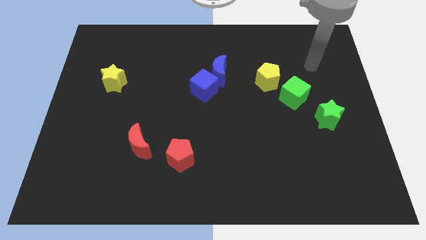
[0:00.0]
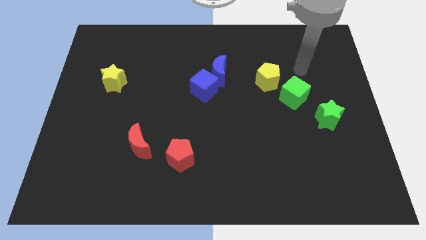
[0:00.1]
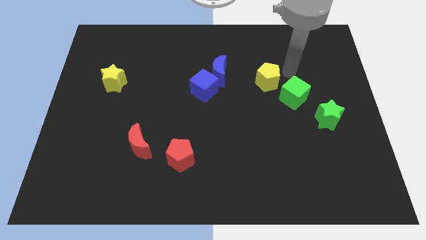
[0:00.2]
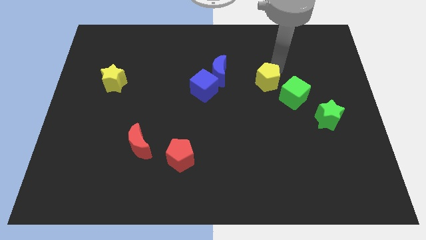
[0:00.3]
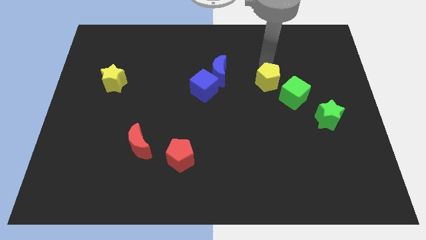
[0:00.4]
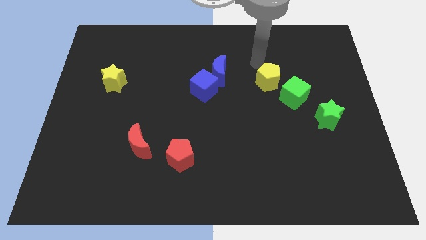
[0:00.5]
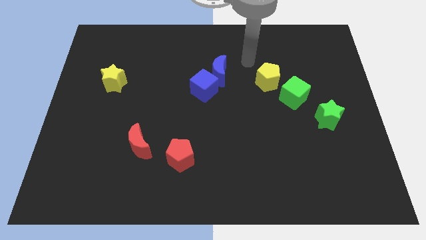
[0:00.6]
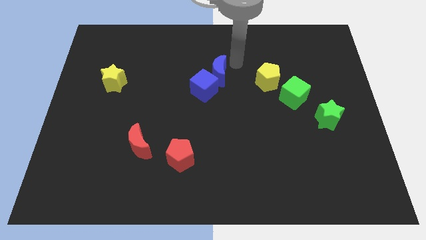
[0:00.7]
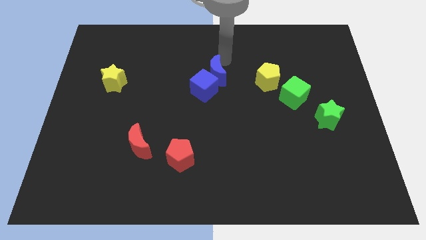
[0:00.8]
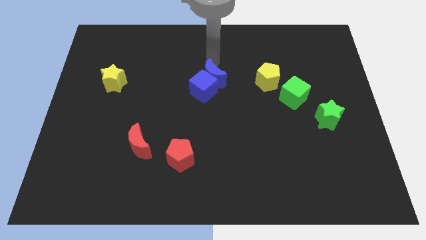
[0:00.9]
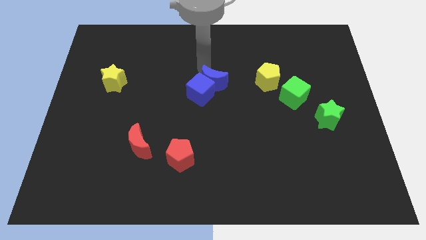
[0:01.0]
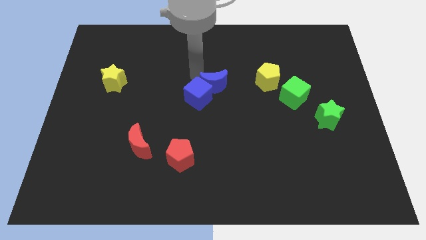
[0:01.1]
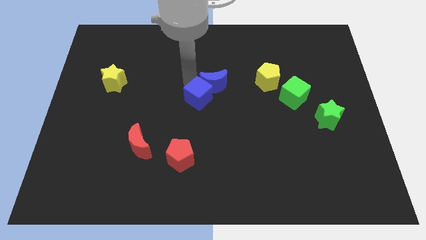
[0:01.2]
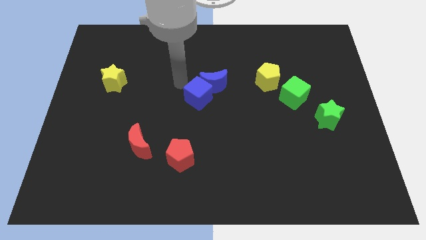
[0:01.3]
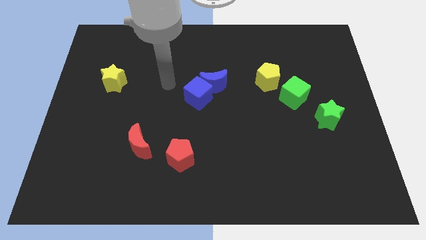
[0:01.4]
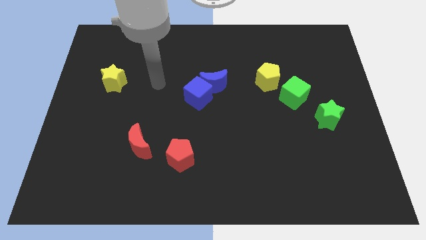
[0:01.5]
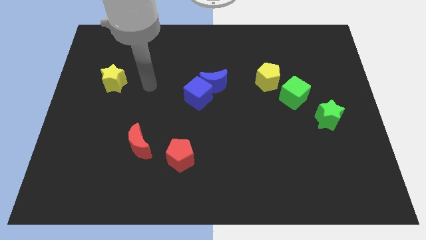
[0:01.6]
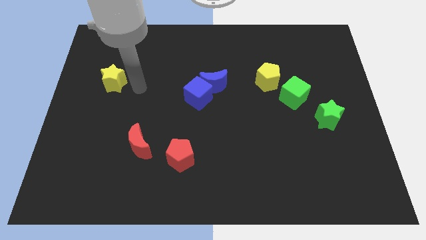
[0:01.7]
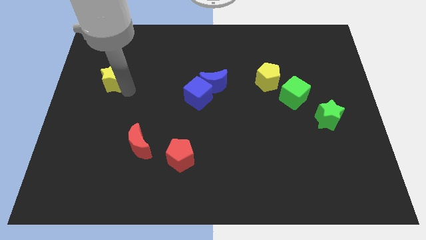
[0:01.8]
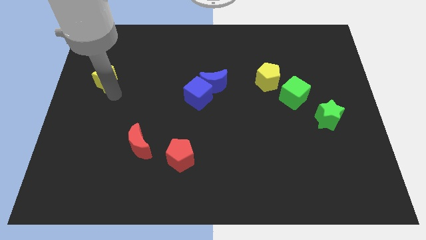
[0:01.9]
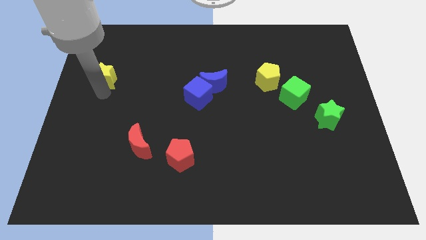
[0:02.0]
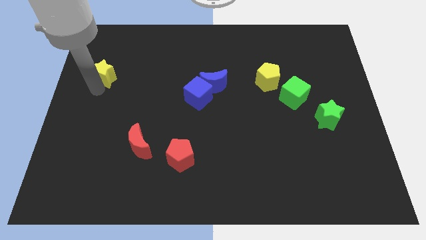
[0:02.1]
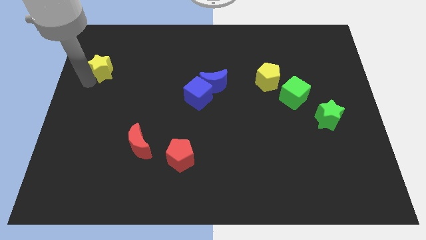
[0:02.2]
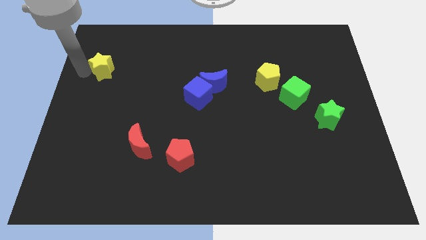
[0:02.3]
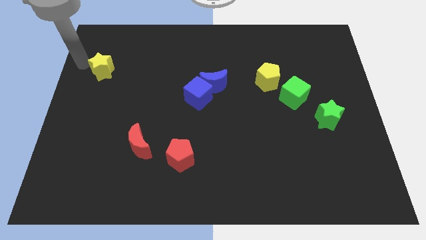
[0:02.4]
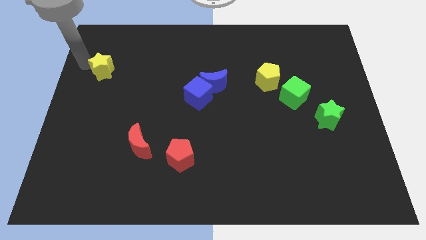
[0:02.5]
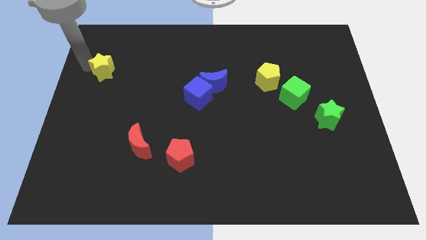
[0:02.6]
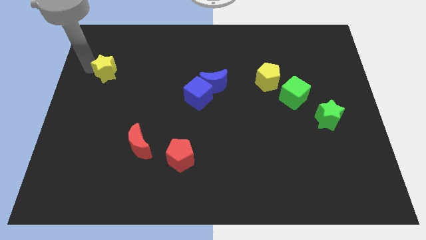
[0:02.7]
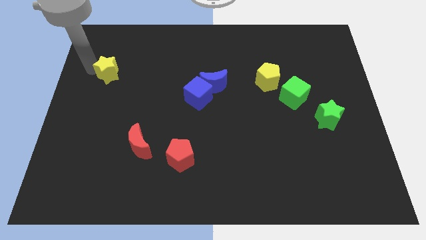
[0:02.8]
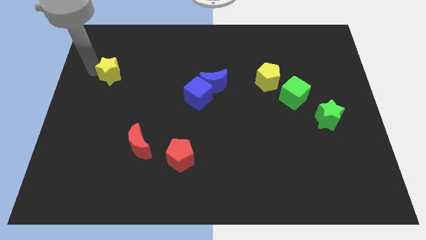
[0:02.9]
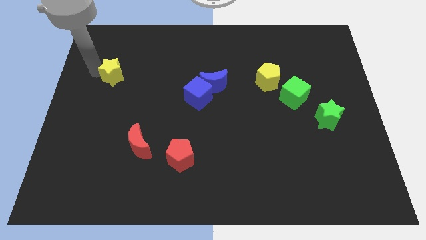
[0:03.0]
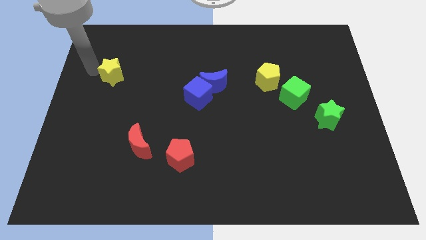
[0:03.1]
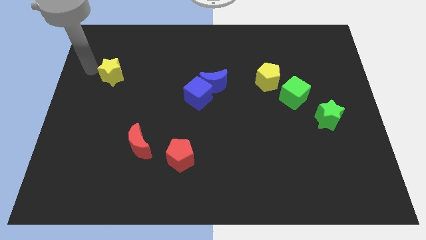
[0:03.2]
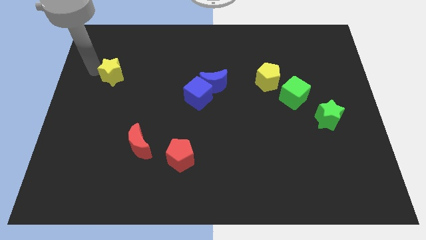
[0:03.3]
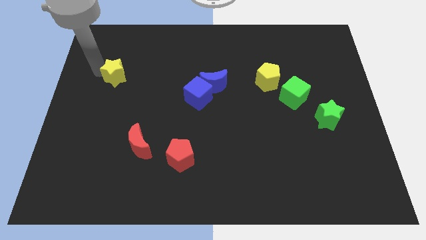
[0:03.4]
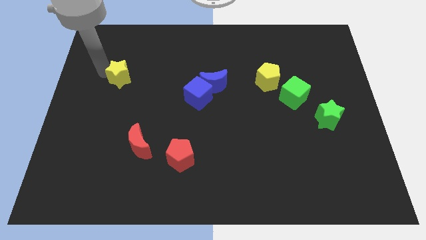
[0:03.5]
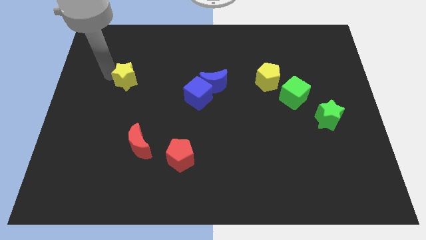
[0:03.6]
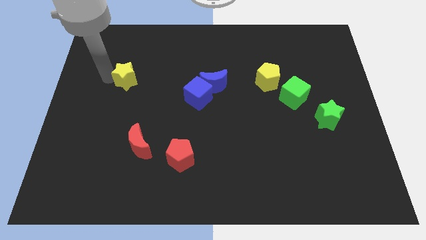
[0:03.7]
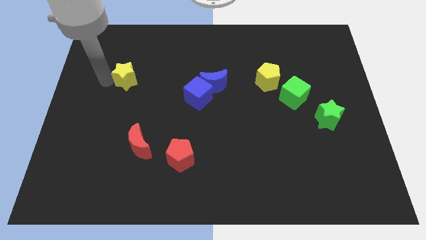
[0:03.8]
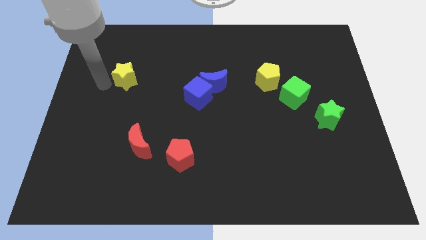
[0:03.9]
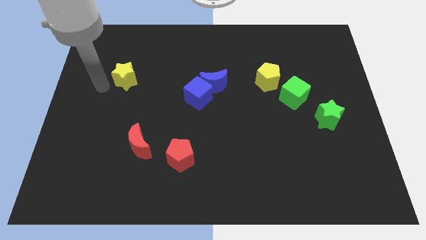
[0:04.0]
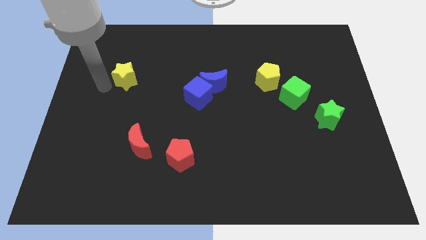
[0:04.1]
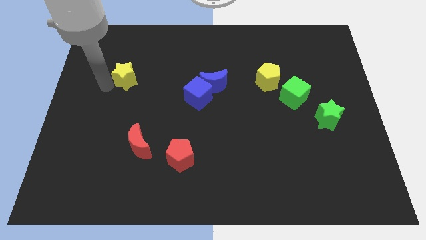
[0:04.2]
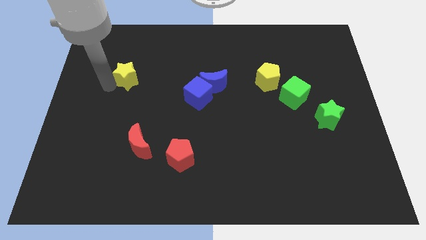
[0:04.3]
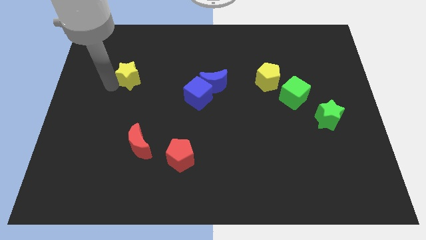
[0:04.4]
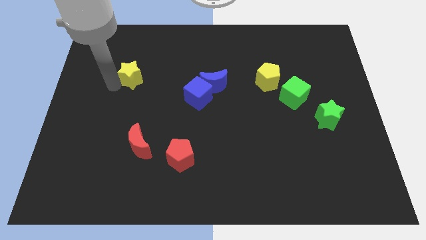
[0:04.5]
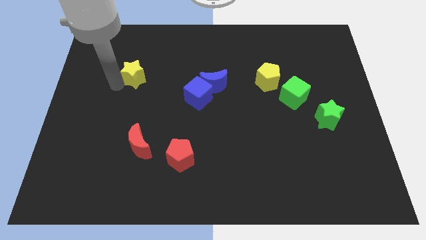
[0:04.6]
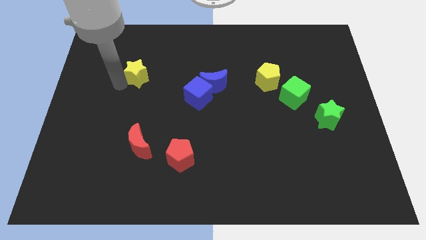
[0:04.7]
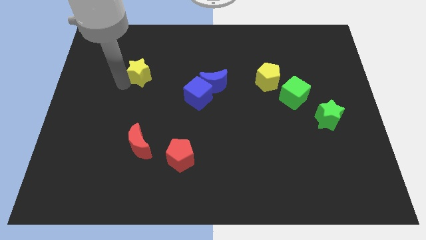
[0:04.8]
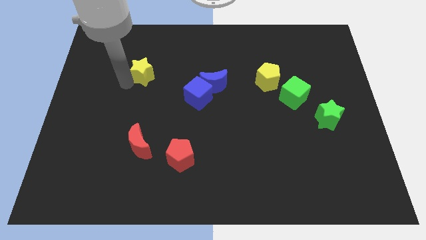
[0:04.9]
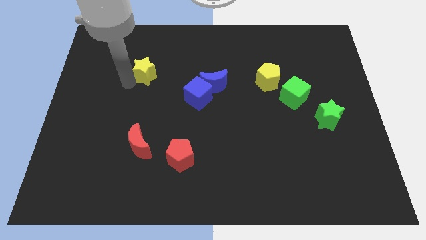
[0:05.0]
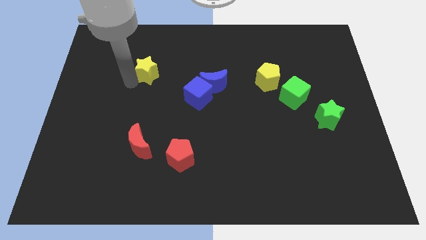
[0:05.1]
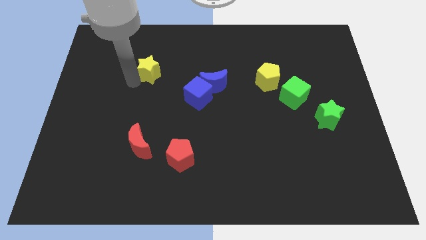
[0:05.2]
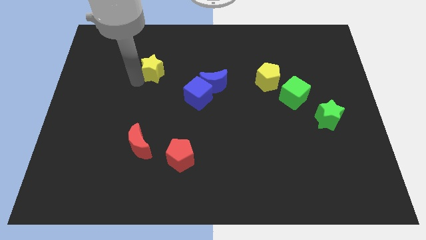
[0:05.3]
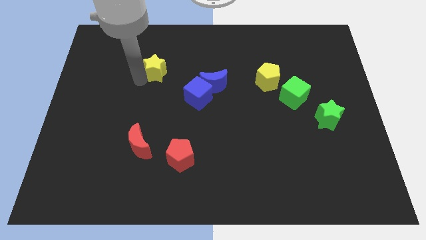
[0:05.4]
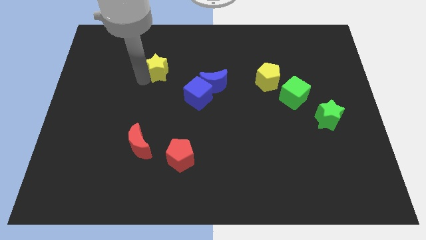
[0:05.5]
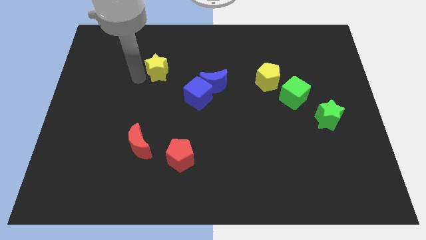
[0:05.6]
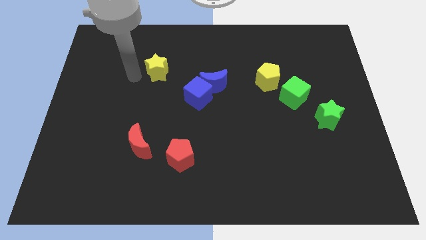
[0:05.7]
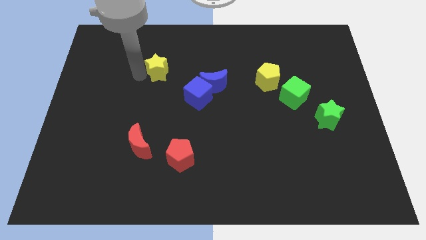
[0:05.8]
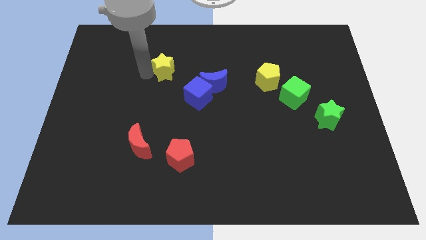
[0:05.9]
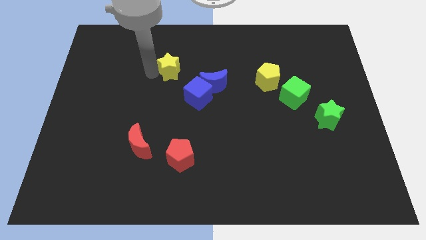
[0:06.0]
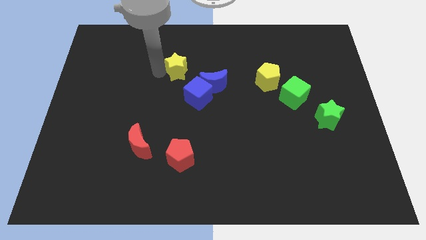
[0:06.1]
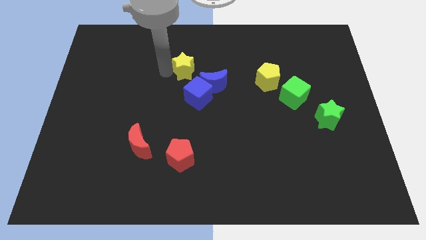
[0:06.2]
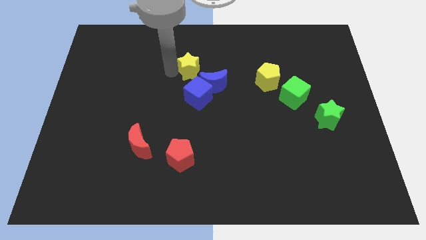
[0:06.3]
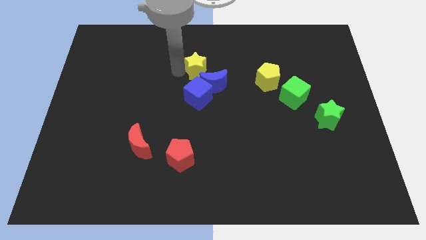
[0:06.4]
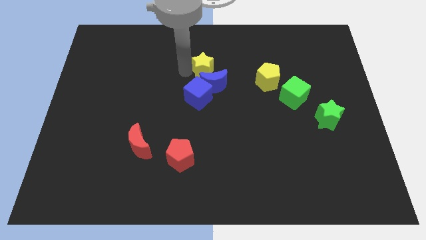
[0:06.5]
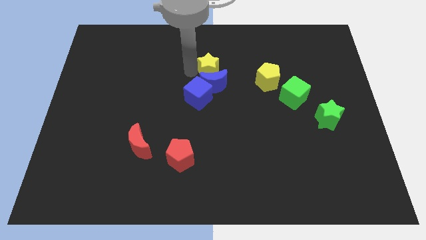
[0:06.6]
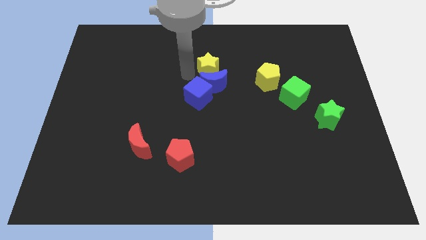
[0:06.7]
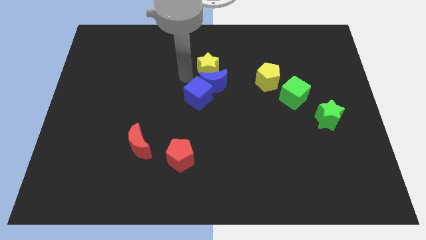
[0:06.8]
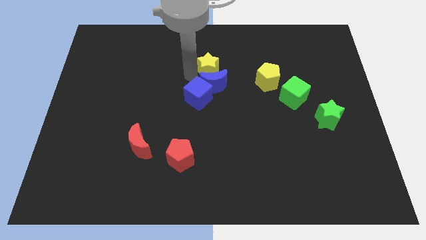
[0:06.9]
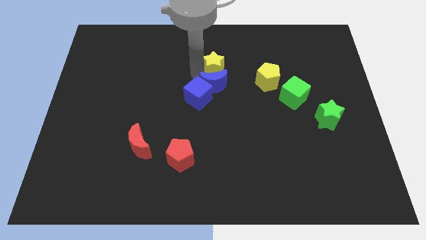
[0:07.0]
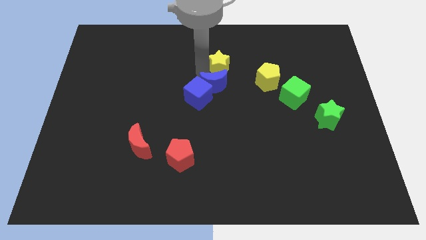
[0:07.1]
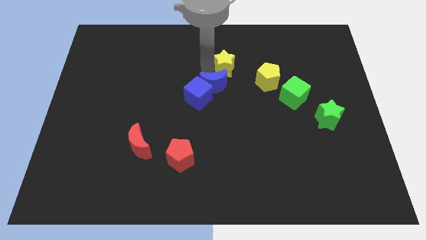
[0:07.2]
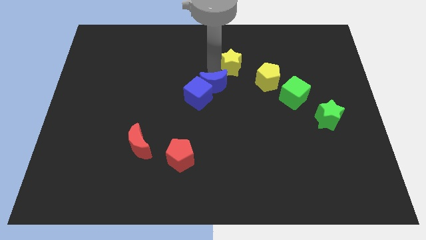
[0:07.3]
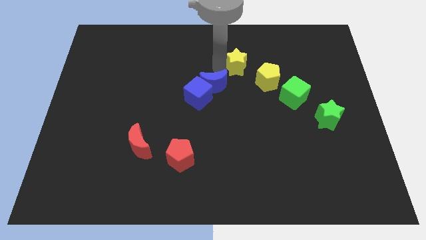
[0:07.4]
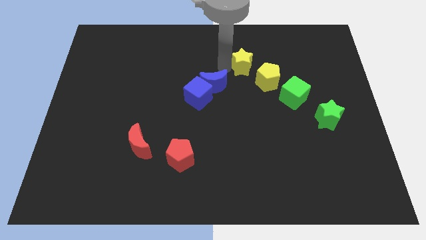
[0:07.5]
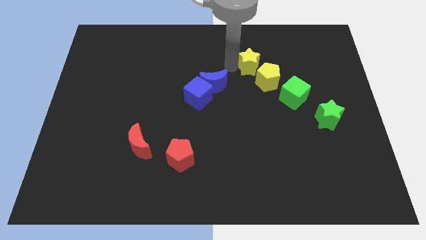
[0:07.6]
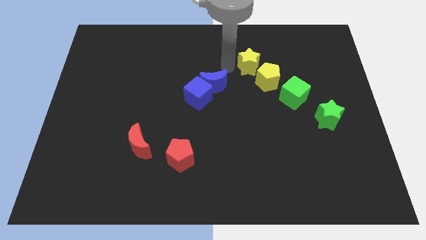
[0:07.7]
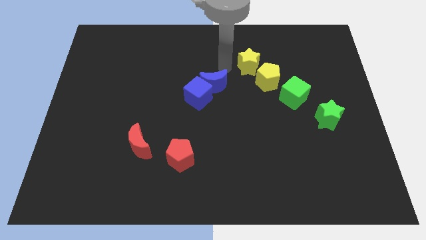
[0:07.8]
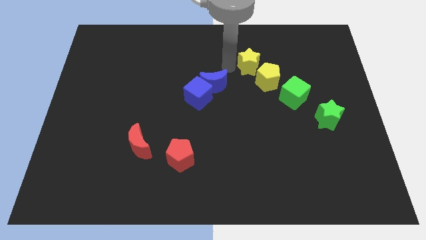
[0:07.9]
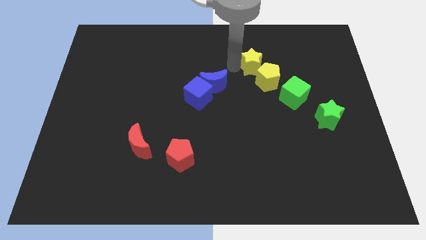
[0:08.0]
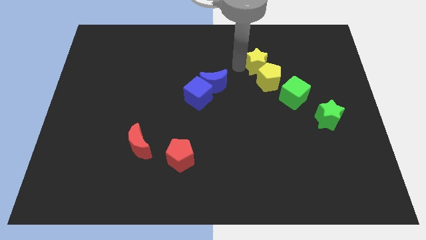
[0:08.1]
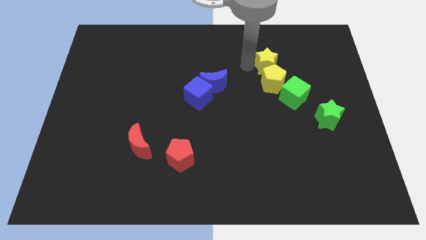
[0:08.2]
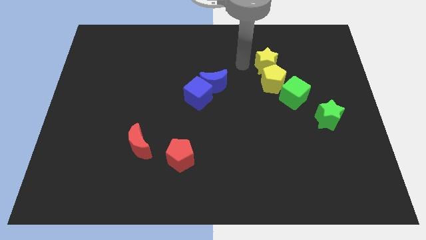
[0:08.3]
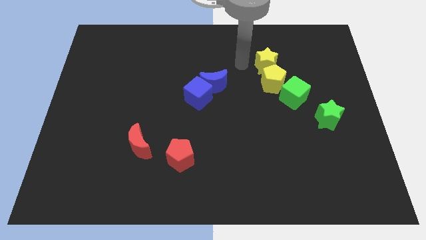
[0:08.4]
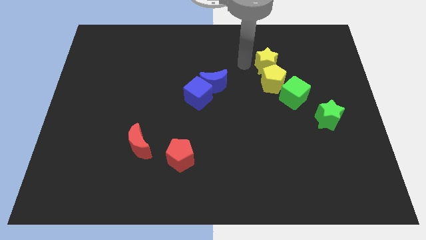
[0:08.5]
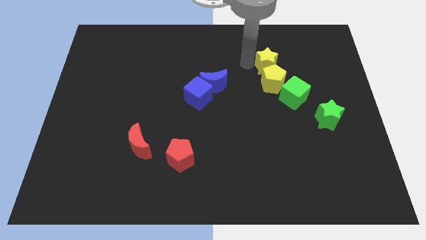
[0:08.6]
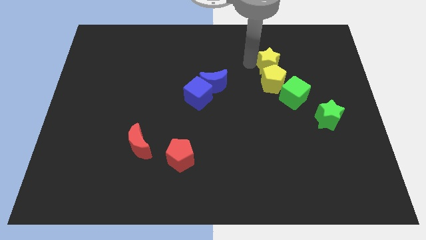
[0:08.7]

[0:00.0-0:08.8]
put the yellow star to the top of the green cube
